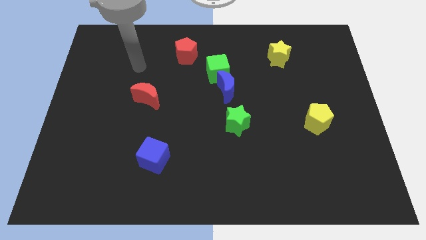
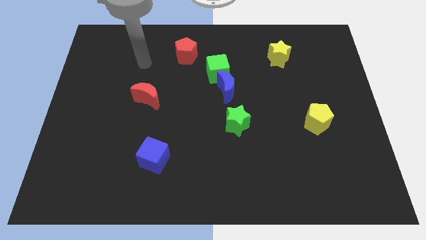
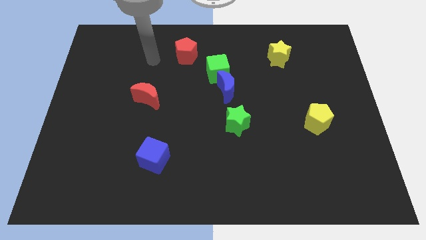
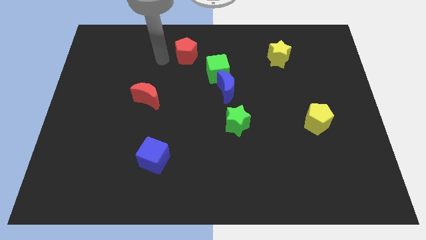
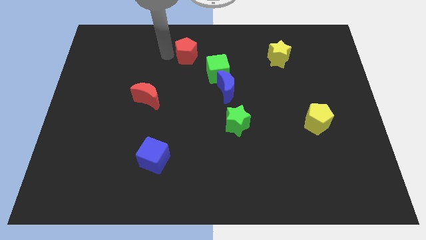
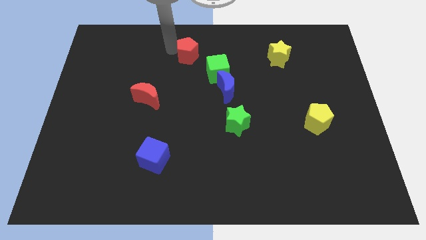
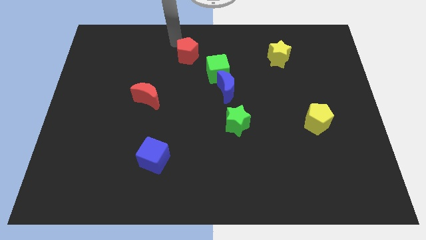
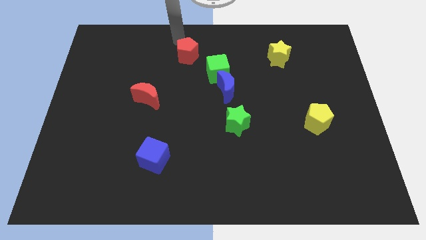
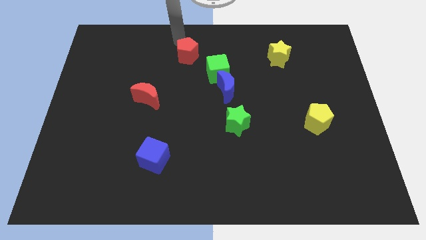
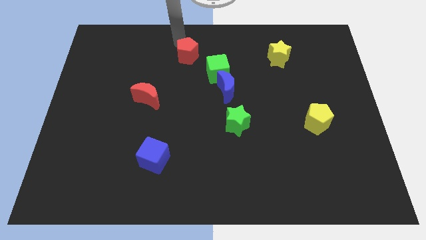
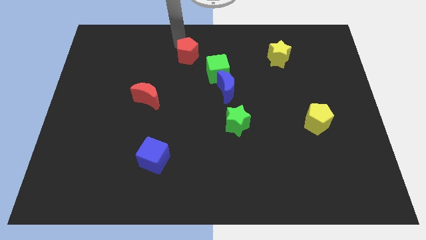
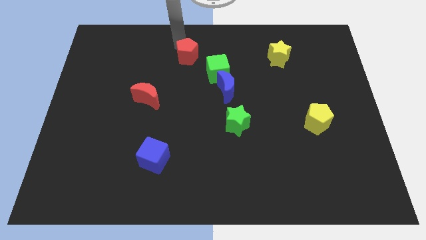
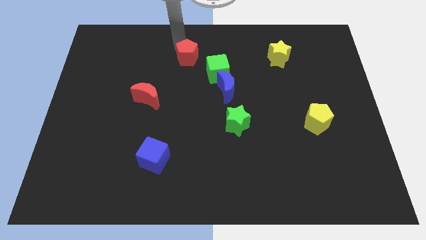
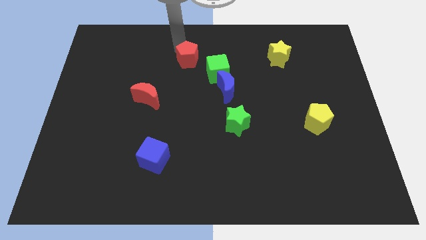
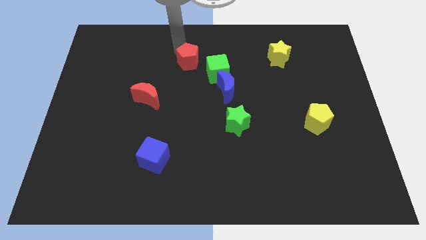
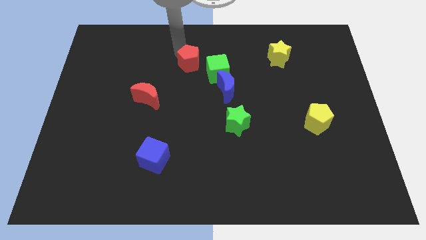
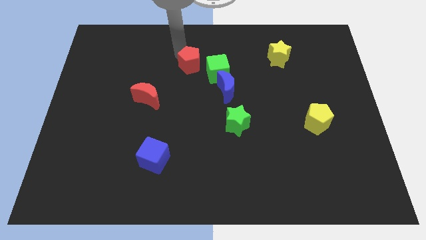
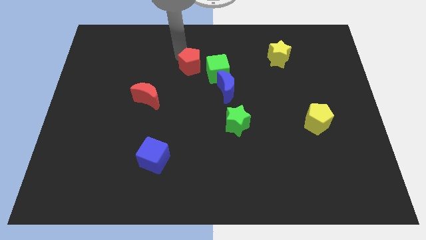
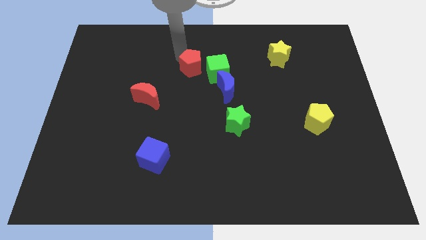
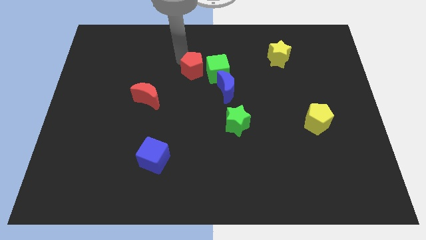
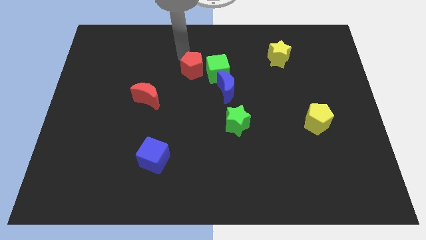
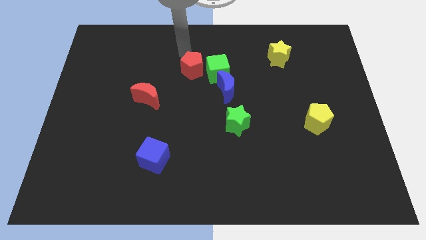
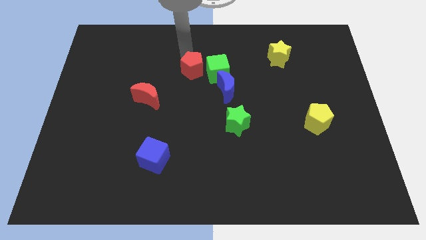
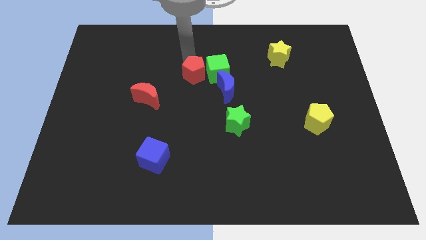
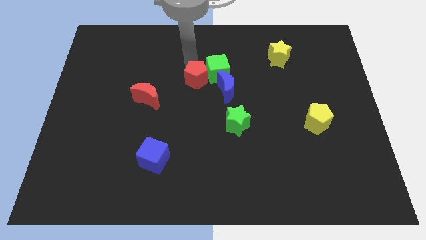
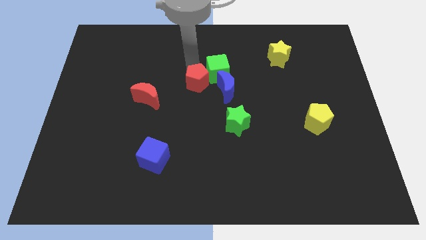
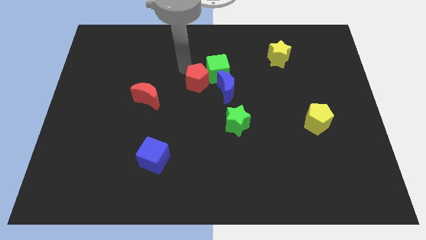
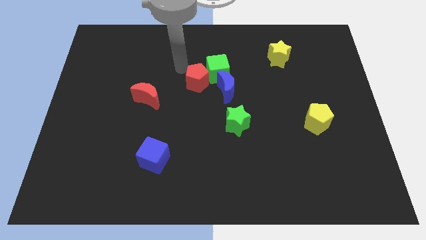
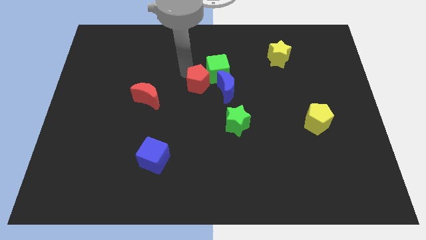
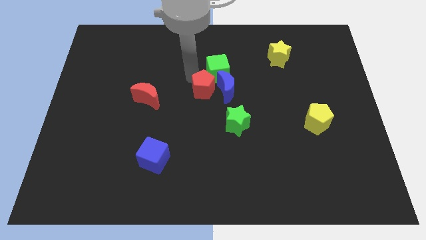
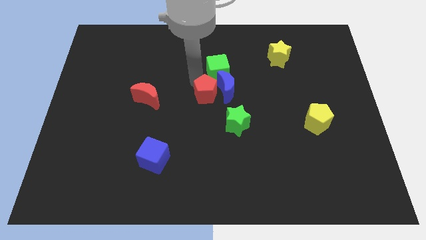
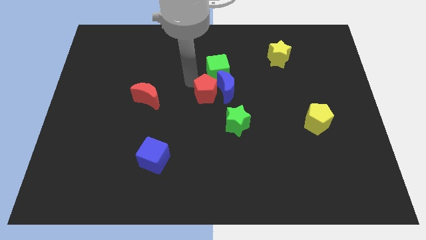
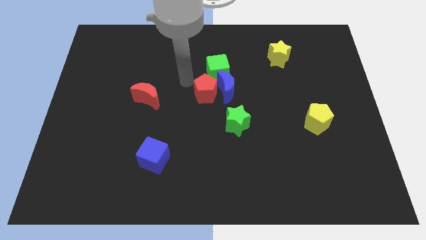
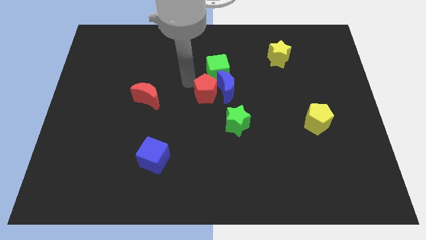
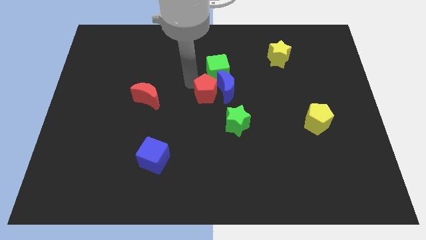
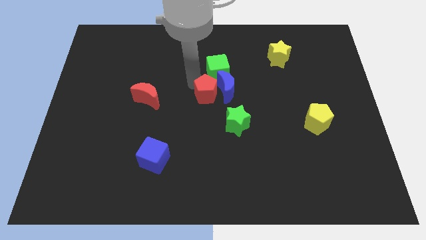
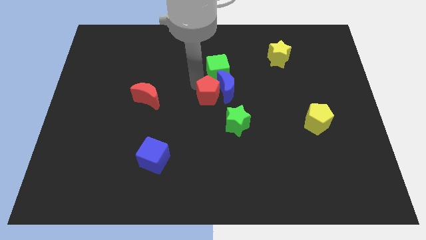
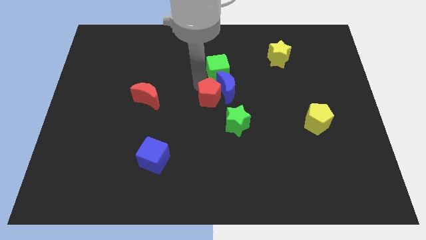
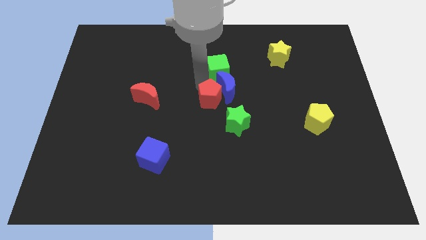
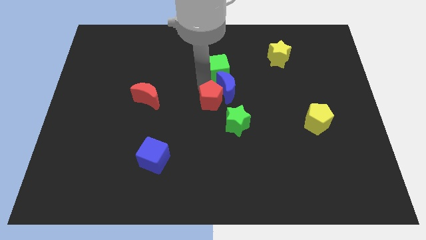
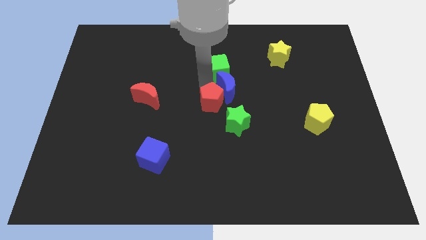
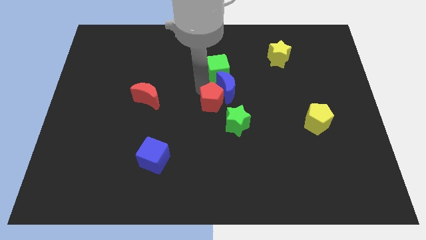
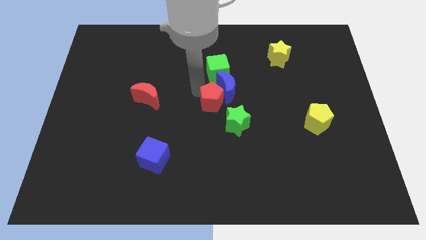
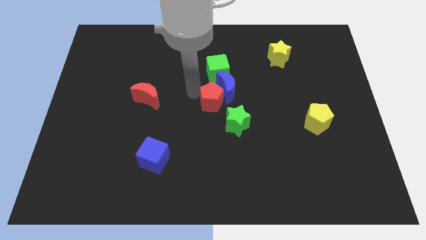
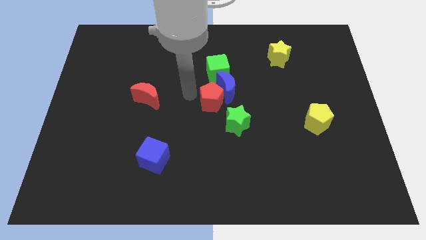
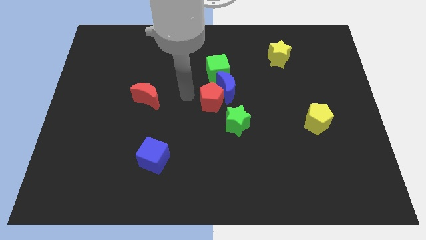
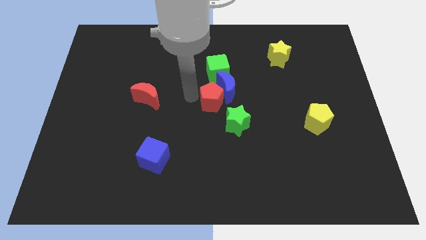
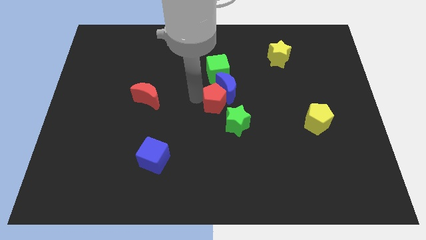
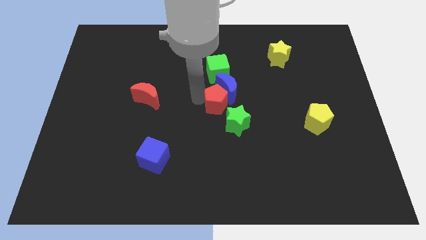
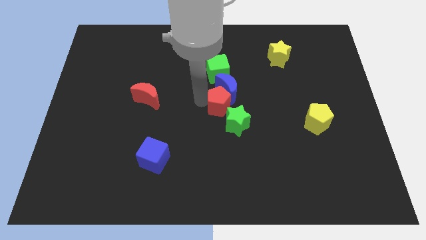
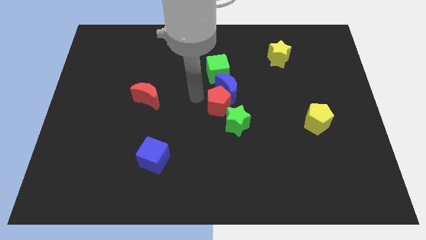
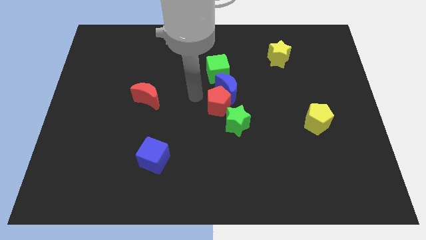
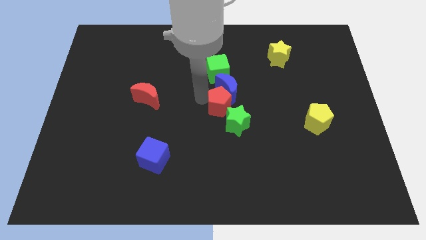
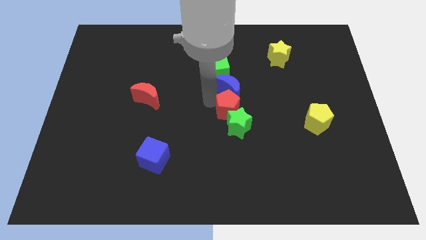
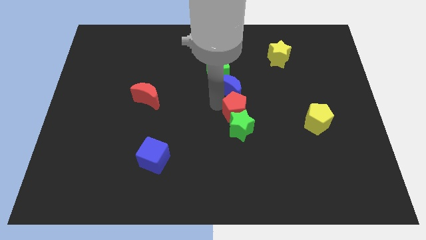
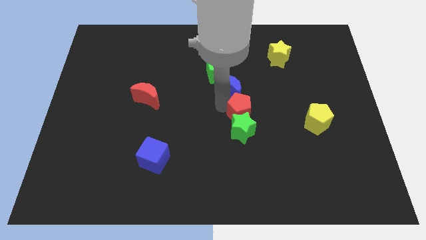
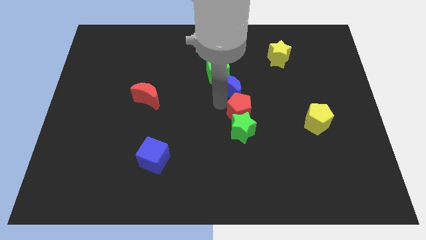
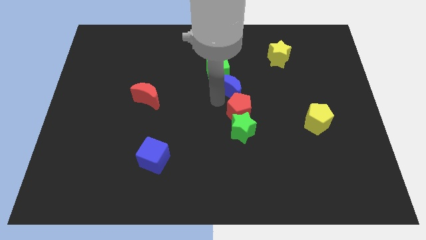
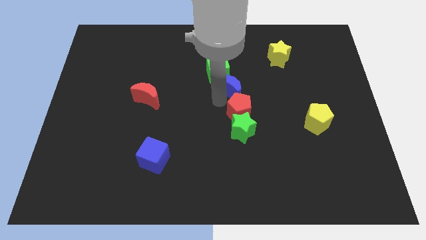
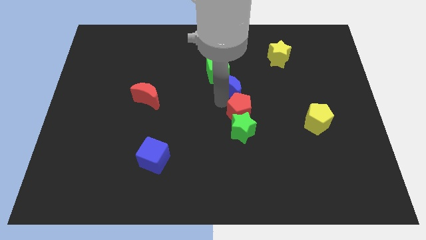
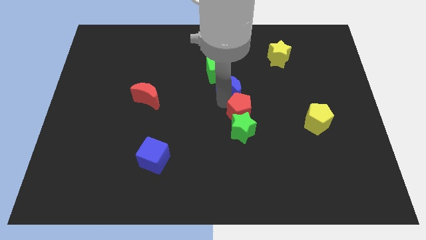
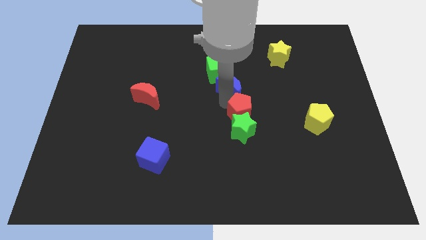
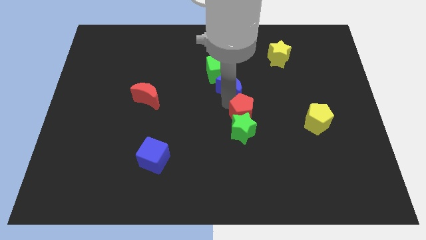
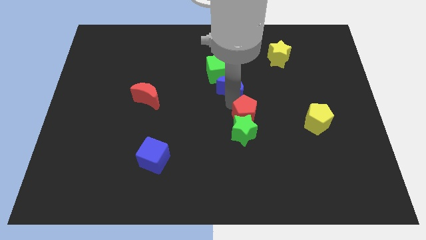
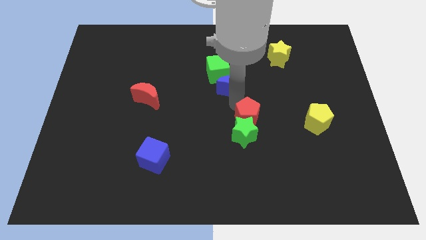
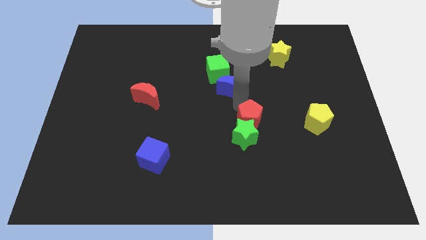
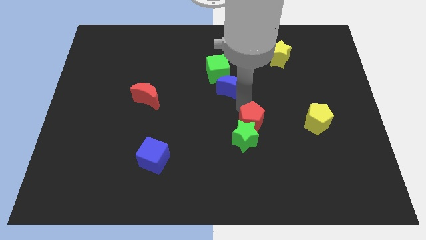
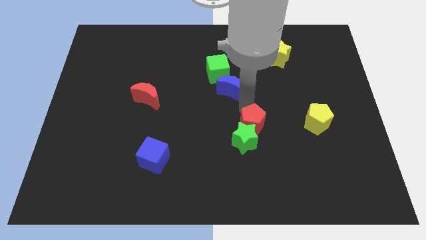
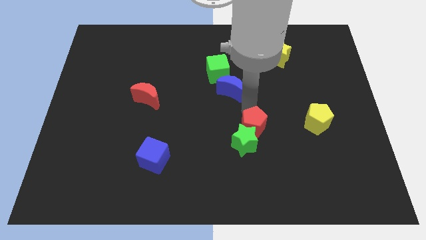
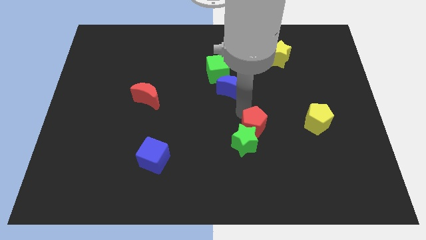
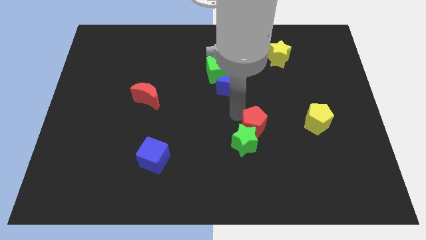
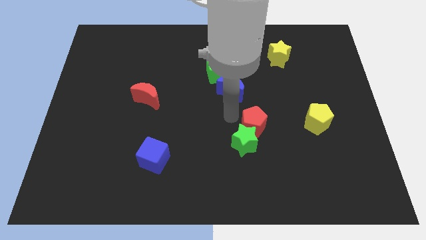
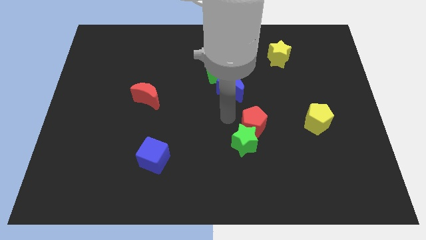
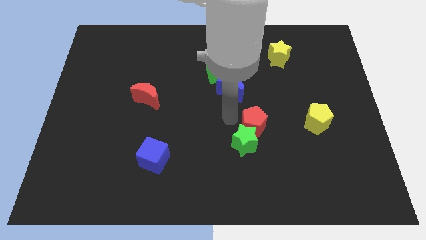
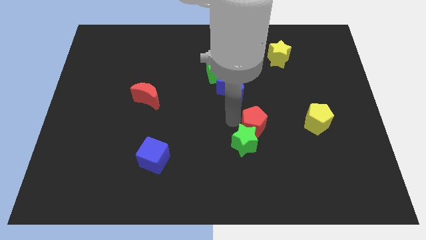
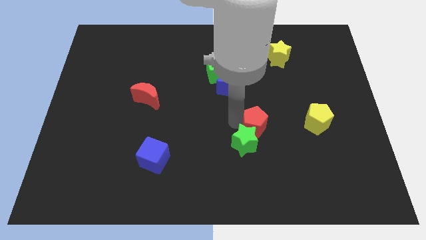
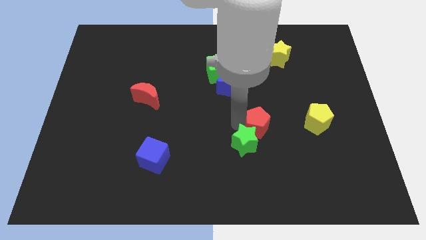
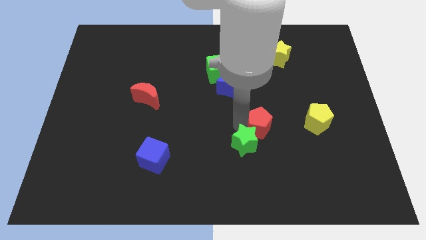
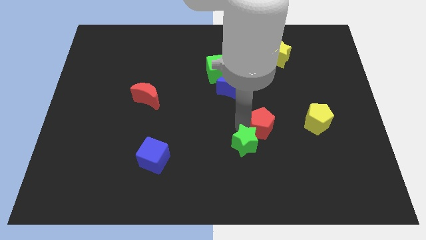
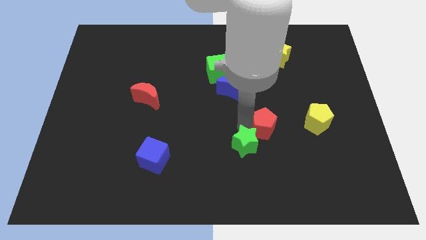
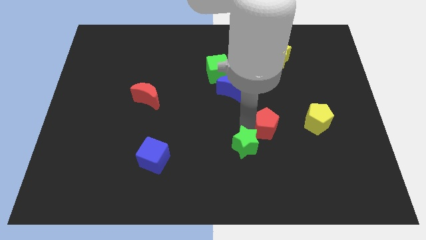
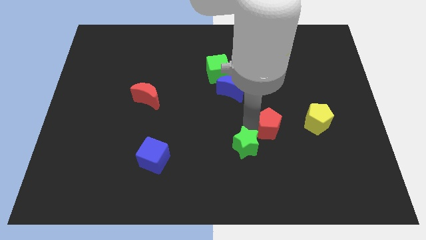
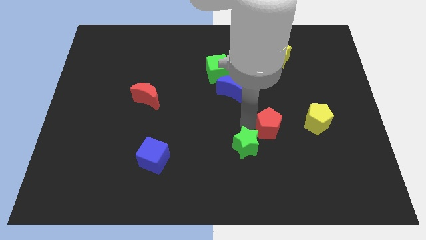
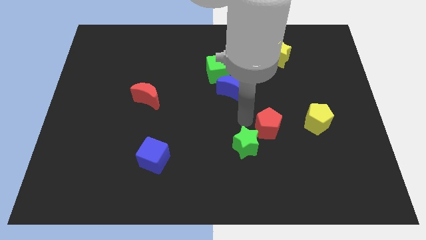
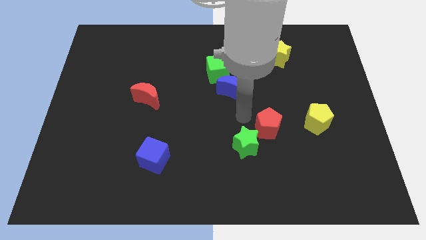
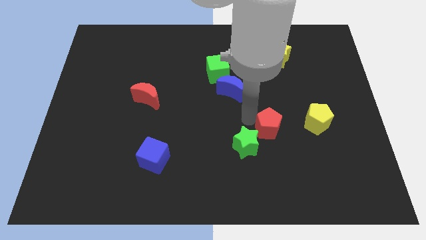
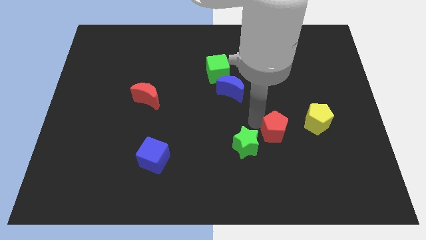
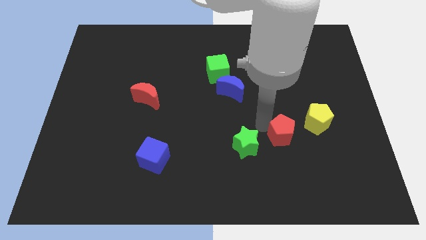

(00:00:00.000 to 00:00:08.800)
push the red pentagon to the bottom left of the yellow pentagon
